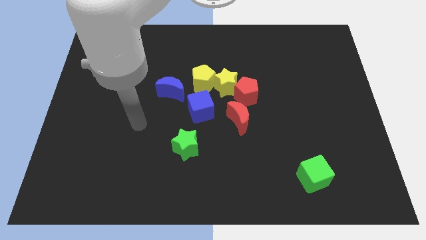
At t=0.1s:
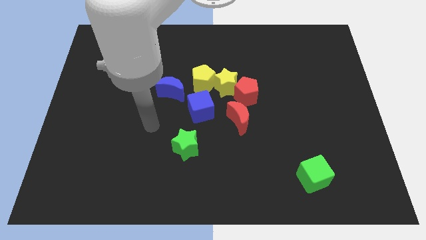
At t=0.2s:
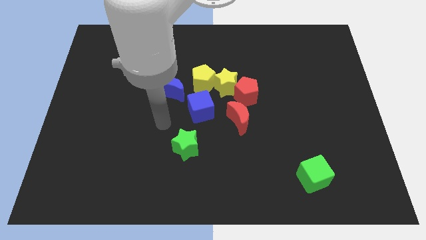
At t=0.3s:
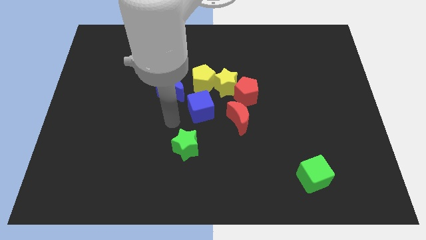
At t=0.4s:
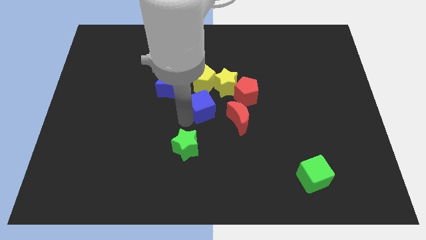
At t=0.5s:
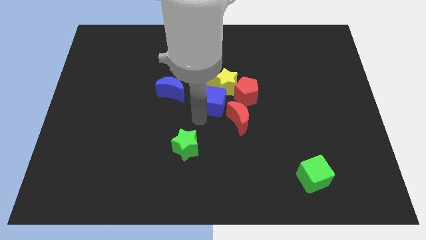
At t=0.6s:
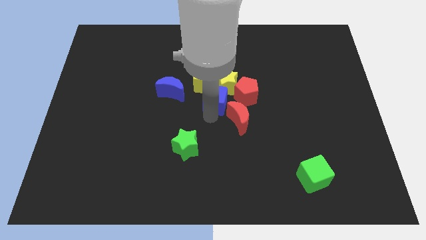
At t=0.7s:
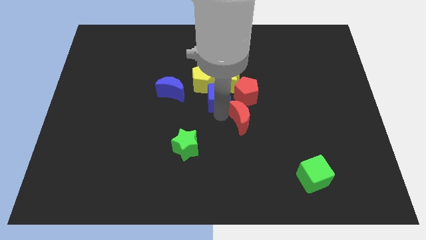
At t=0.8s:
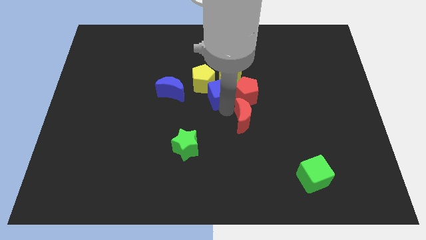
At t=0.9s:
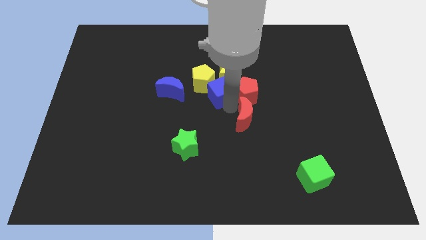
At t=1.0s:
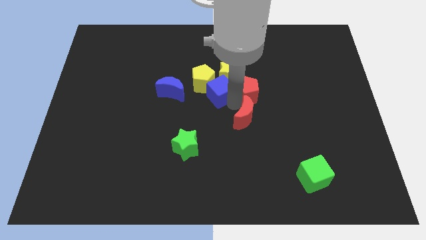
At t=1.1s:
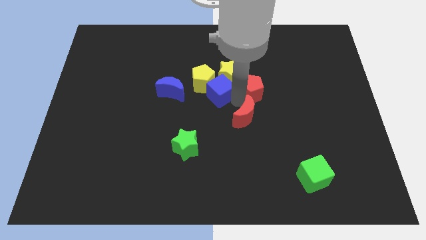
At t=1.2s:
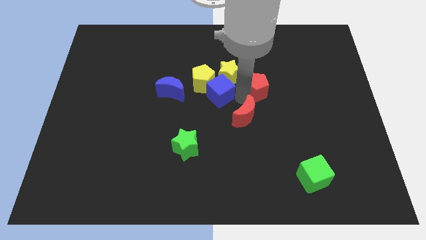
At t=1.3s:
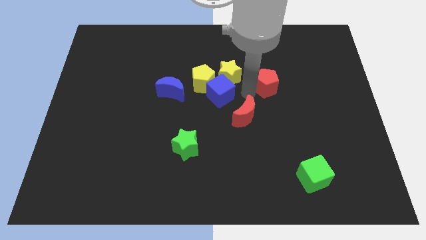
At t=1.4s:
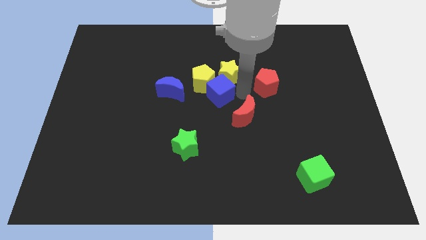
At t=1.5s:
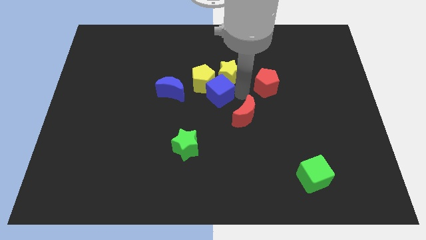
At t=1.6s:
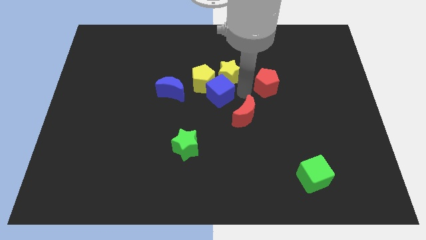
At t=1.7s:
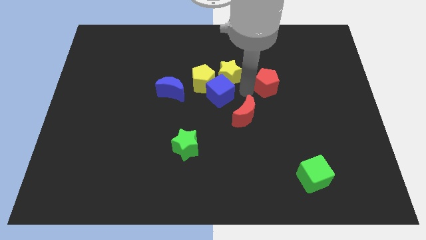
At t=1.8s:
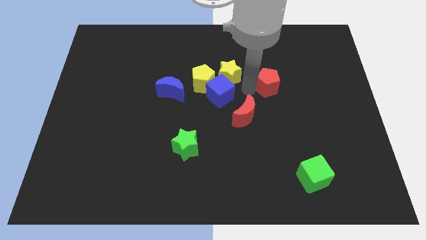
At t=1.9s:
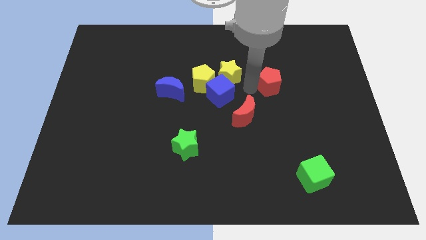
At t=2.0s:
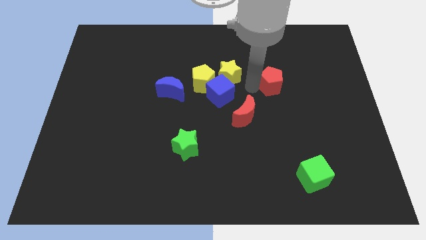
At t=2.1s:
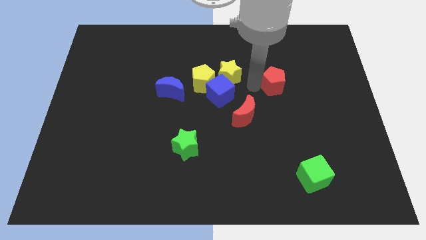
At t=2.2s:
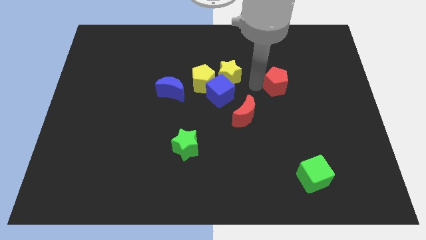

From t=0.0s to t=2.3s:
separate the red pentagon from the yellow star and red moon

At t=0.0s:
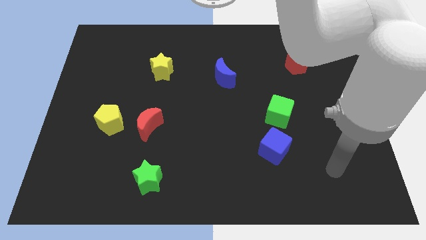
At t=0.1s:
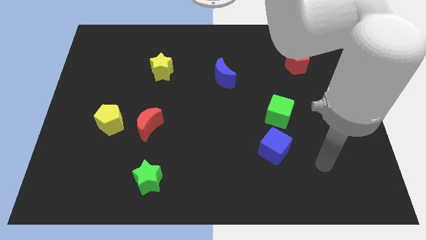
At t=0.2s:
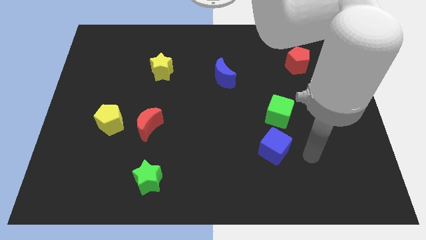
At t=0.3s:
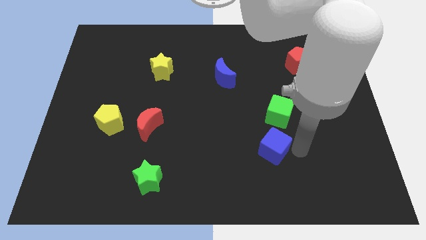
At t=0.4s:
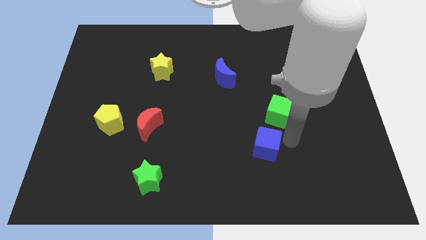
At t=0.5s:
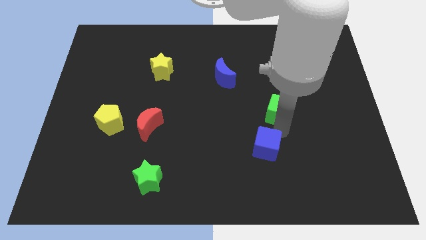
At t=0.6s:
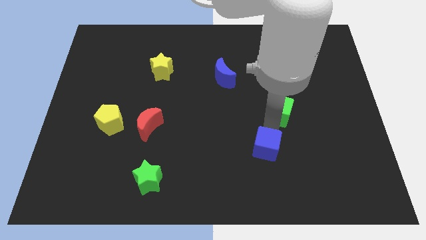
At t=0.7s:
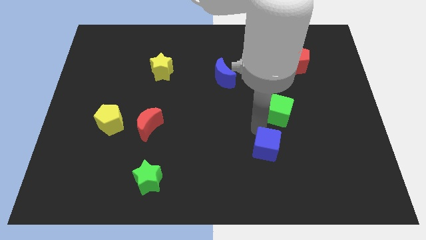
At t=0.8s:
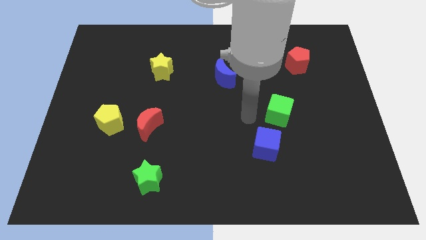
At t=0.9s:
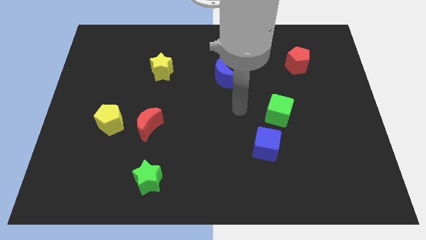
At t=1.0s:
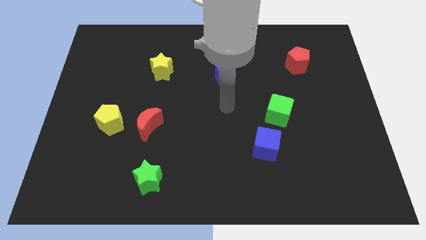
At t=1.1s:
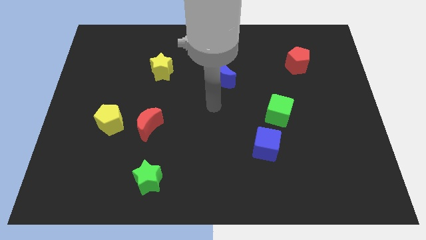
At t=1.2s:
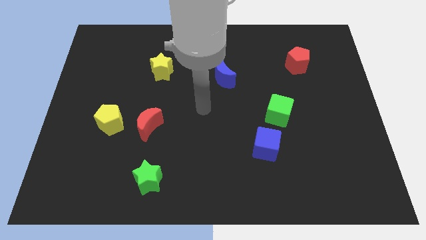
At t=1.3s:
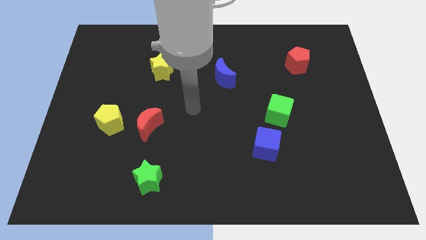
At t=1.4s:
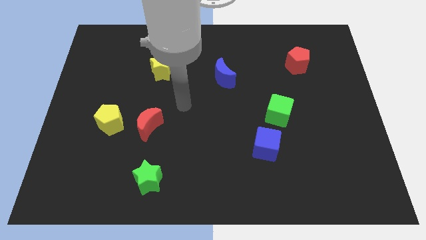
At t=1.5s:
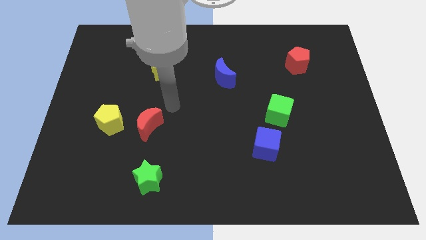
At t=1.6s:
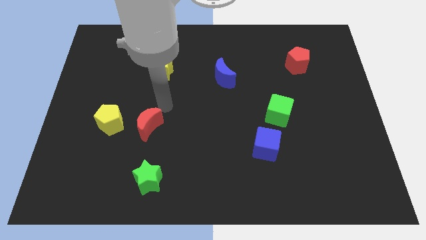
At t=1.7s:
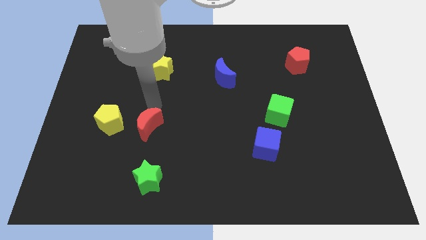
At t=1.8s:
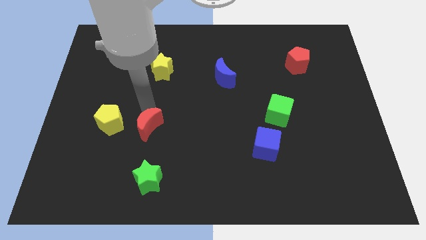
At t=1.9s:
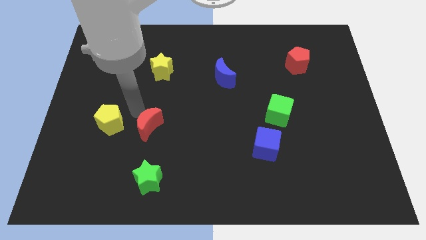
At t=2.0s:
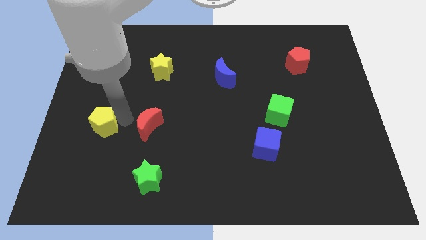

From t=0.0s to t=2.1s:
pull the red moon apart from the yellow pentagon

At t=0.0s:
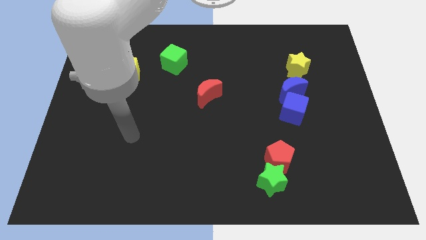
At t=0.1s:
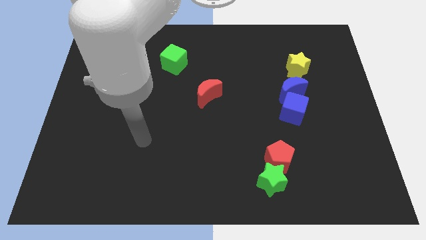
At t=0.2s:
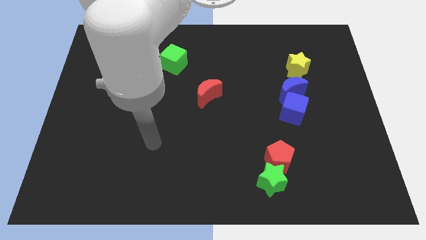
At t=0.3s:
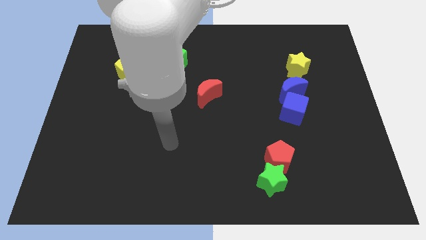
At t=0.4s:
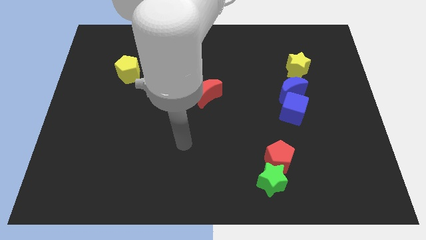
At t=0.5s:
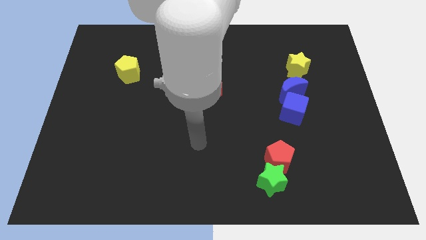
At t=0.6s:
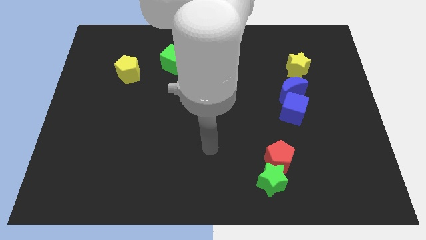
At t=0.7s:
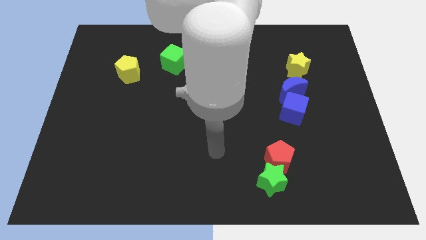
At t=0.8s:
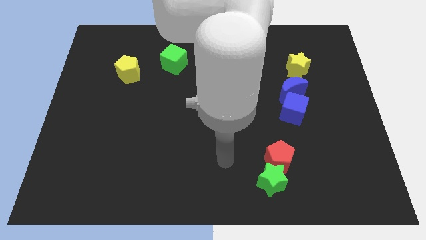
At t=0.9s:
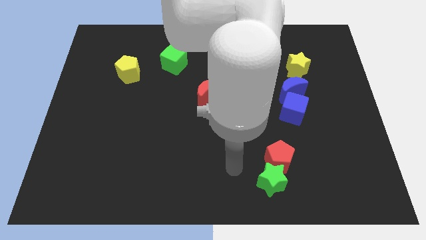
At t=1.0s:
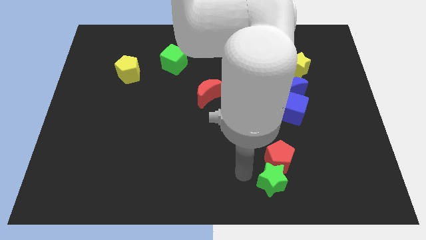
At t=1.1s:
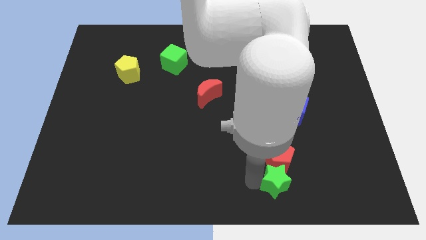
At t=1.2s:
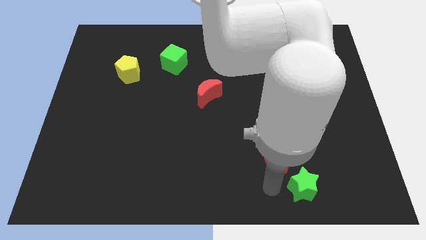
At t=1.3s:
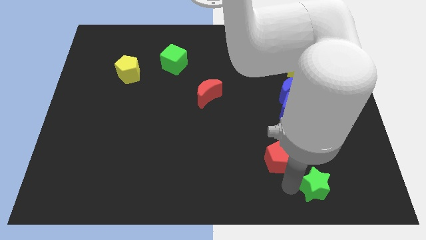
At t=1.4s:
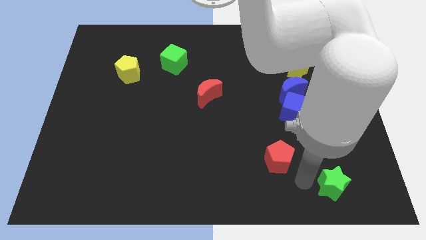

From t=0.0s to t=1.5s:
pull the red pentagon apart from the green star

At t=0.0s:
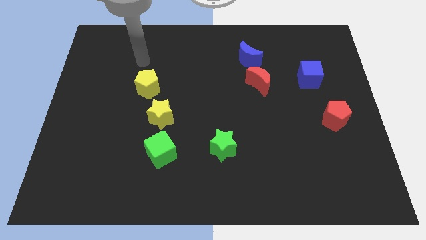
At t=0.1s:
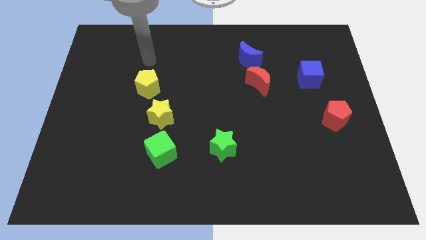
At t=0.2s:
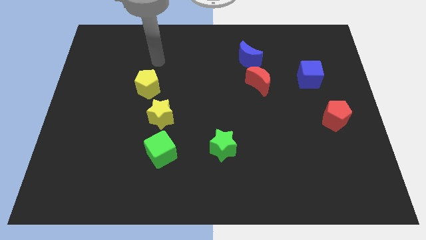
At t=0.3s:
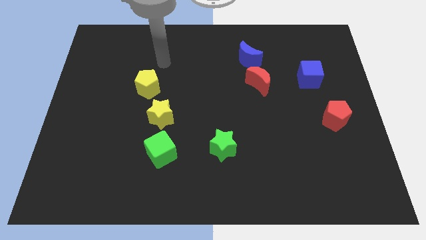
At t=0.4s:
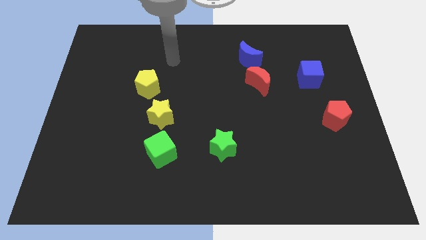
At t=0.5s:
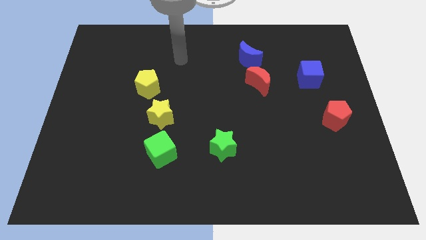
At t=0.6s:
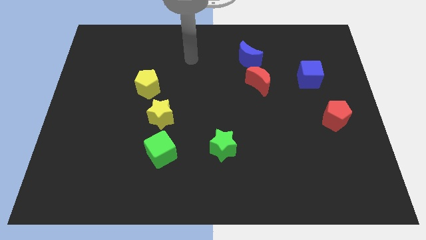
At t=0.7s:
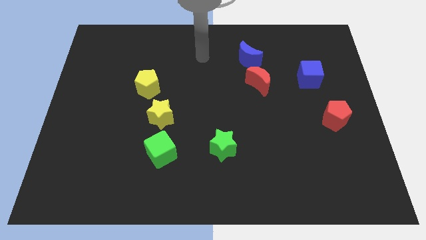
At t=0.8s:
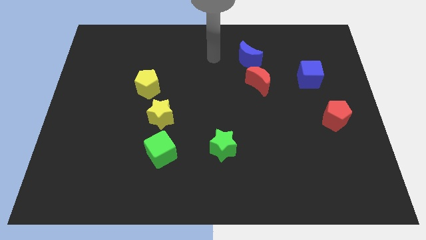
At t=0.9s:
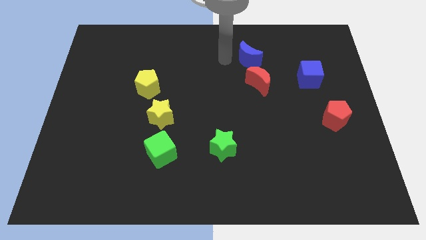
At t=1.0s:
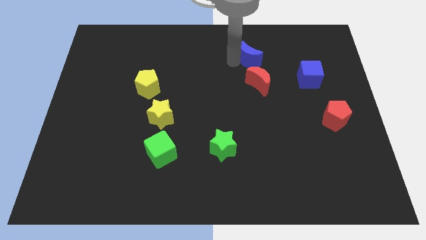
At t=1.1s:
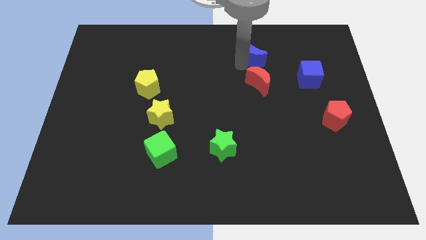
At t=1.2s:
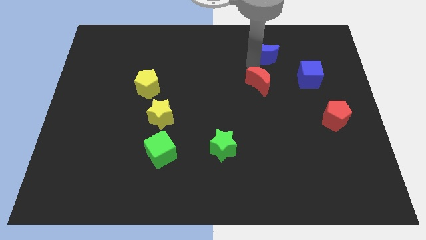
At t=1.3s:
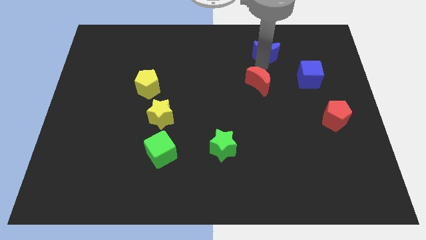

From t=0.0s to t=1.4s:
move the red moon away from the blue moon

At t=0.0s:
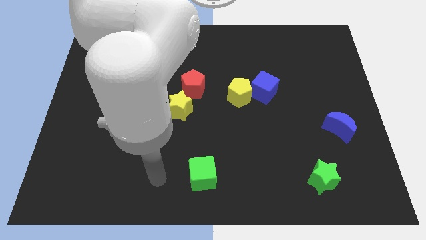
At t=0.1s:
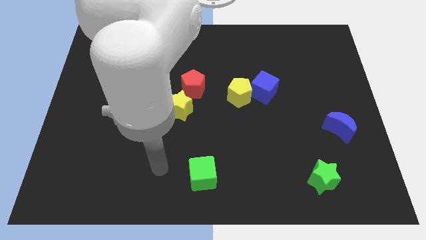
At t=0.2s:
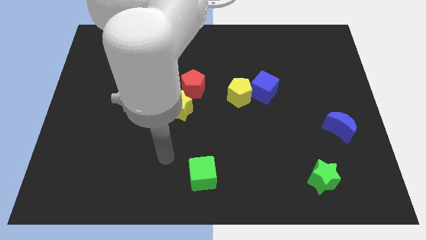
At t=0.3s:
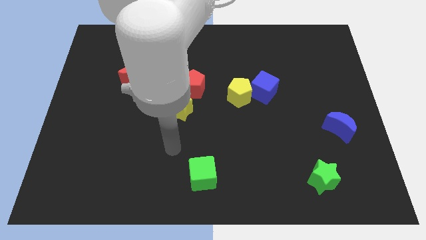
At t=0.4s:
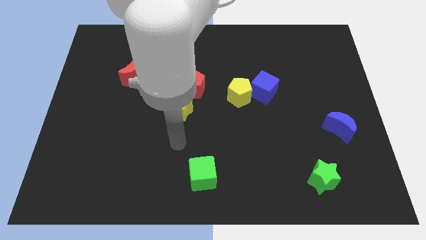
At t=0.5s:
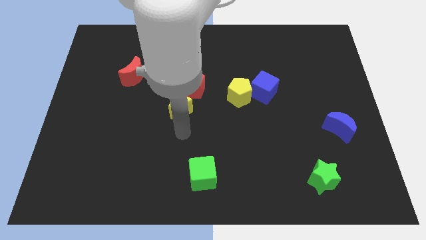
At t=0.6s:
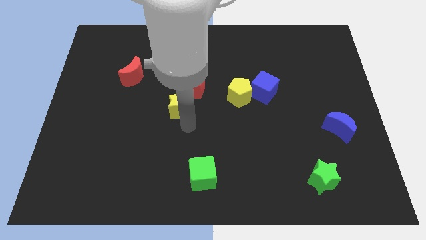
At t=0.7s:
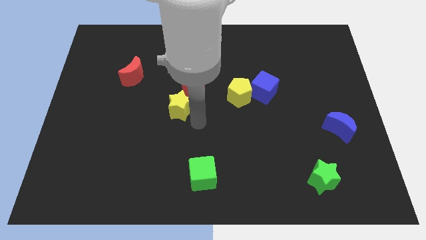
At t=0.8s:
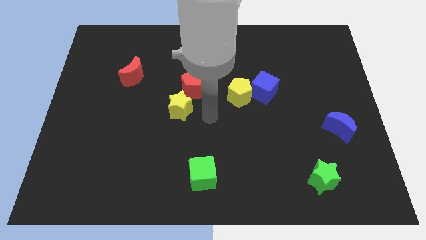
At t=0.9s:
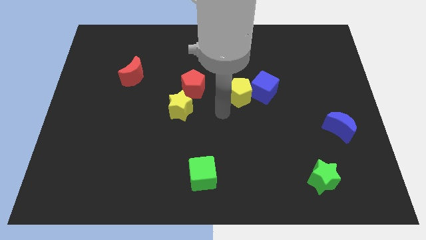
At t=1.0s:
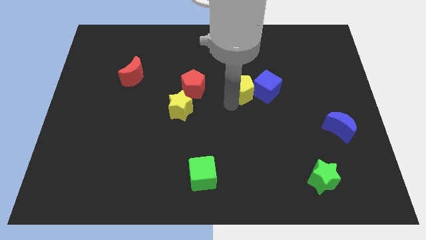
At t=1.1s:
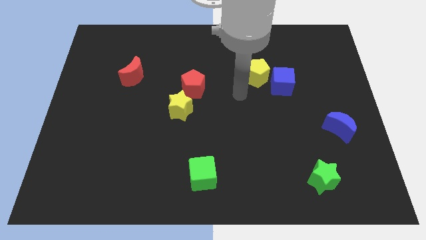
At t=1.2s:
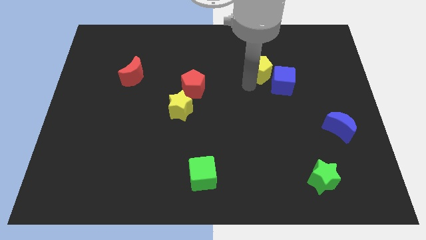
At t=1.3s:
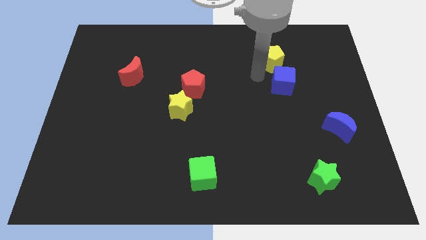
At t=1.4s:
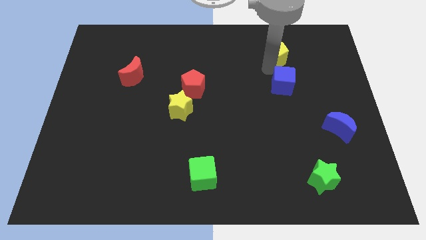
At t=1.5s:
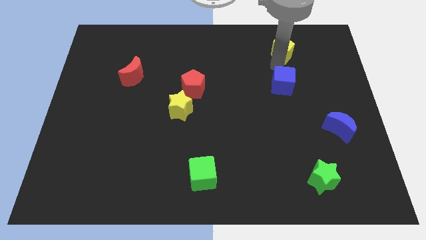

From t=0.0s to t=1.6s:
pull the blue cube apart from the yellow pentagon

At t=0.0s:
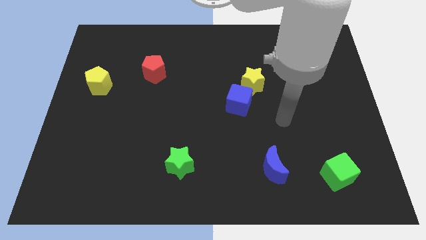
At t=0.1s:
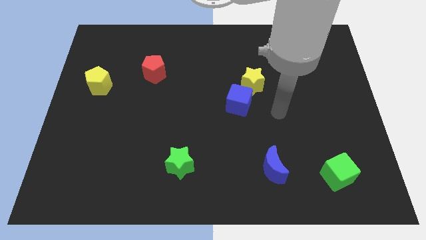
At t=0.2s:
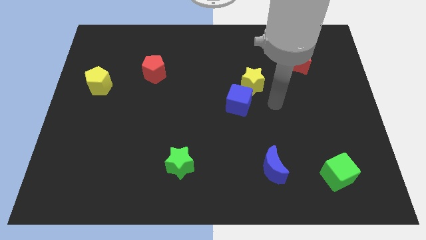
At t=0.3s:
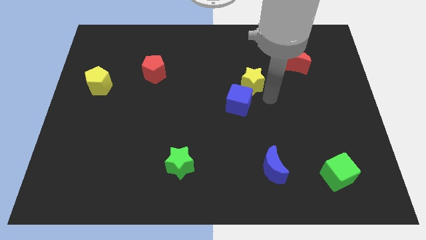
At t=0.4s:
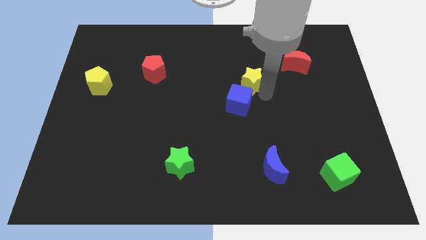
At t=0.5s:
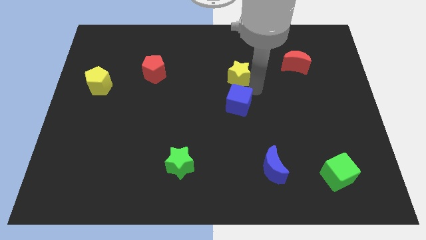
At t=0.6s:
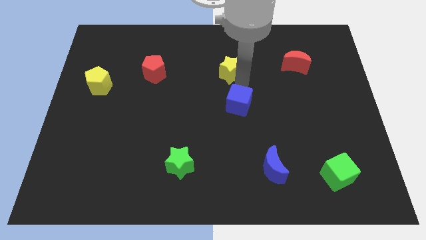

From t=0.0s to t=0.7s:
separate the blue cube from the yellow star
